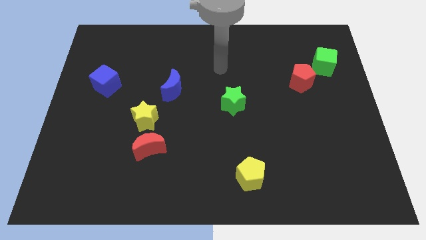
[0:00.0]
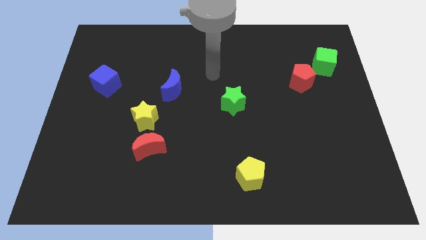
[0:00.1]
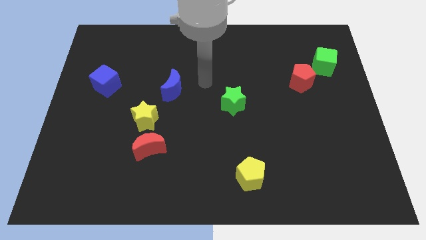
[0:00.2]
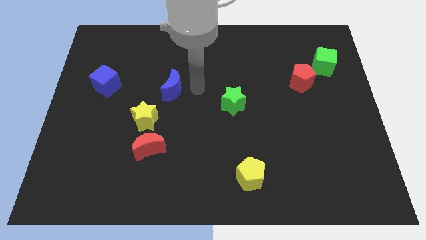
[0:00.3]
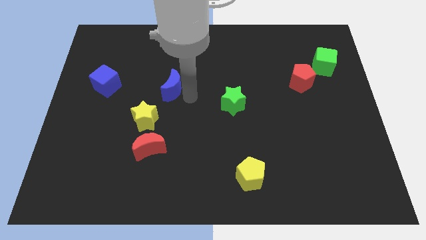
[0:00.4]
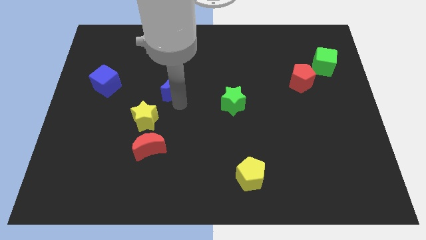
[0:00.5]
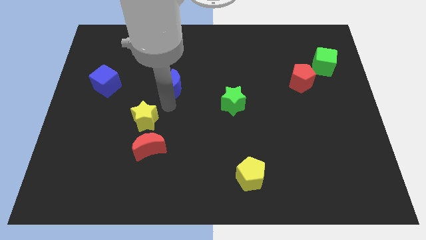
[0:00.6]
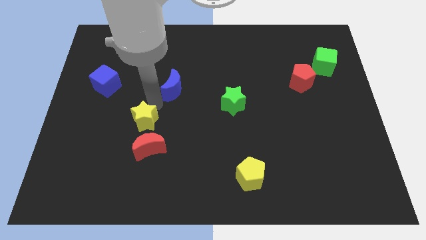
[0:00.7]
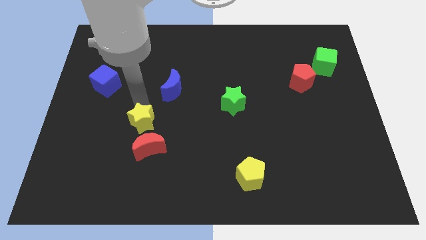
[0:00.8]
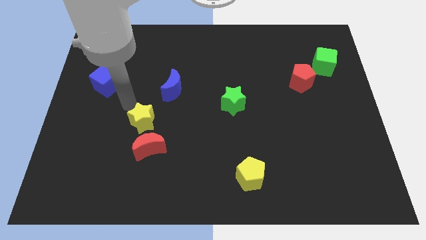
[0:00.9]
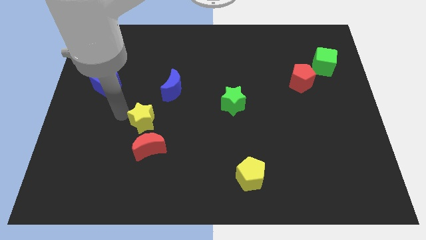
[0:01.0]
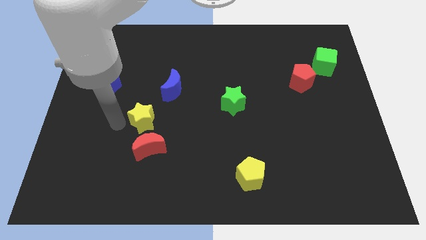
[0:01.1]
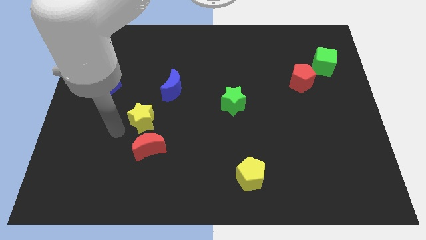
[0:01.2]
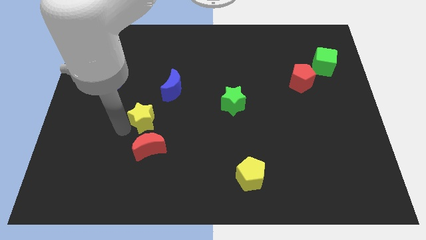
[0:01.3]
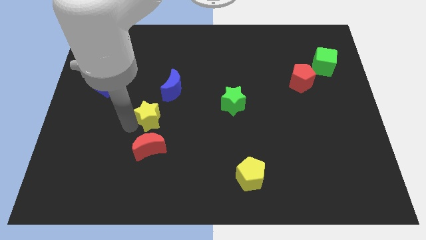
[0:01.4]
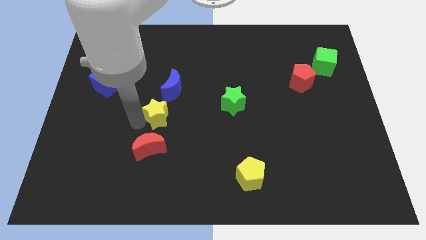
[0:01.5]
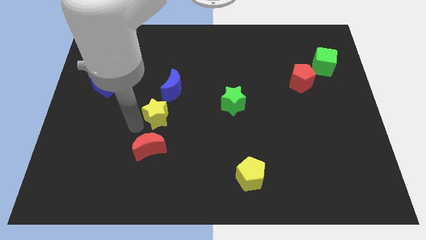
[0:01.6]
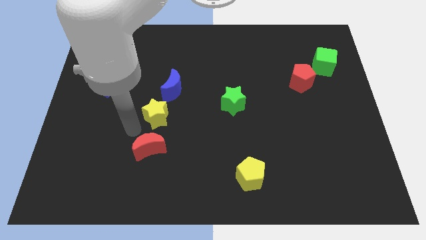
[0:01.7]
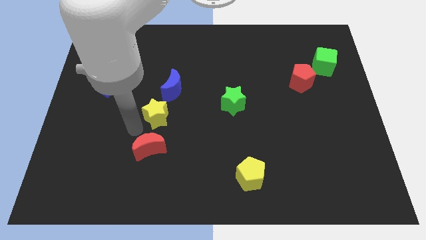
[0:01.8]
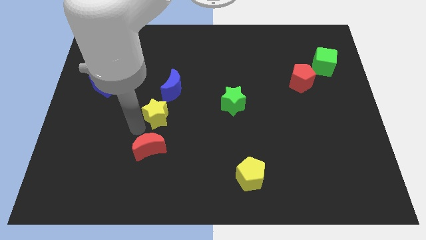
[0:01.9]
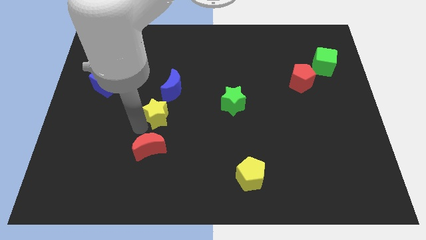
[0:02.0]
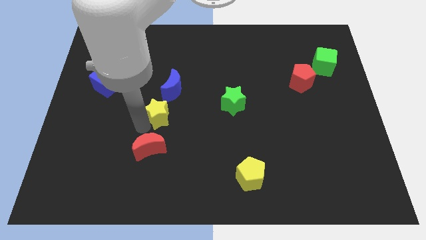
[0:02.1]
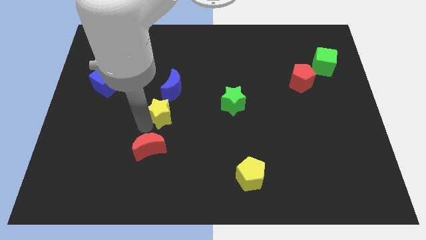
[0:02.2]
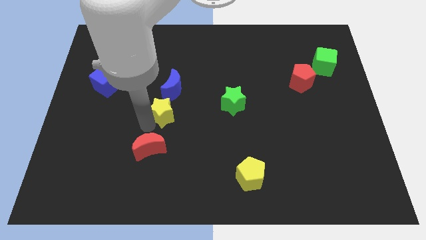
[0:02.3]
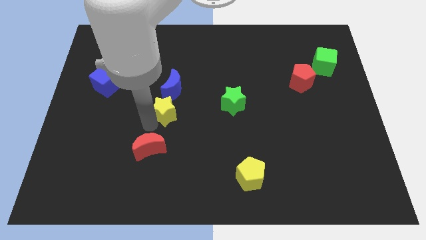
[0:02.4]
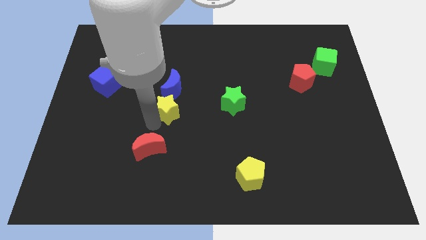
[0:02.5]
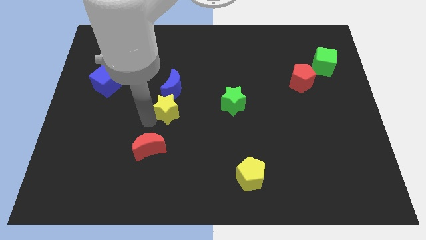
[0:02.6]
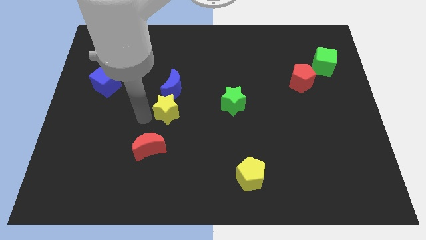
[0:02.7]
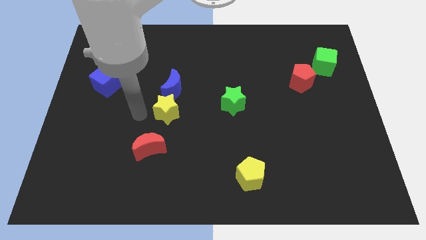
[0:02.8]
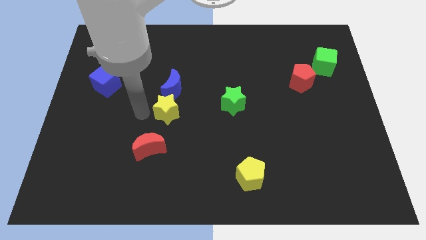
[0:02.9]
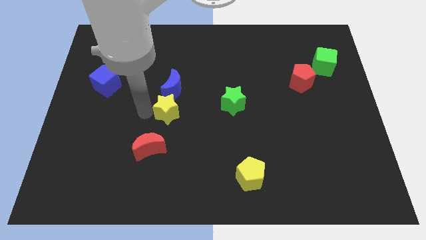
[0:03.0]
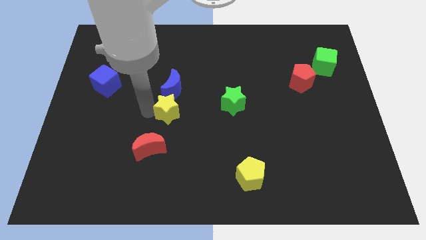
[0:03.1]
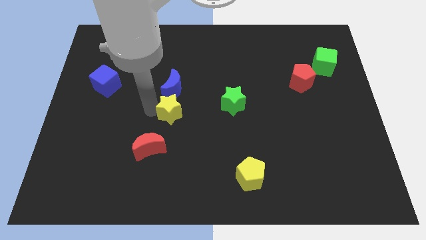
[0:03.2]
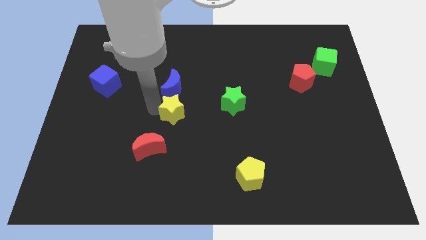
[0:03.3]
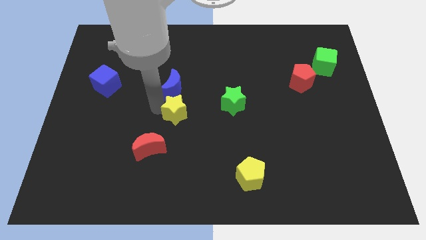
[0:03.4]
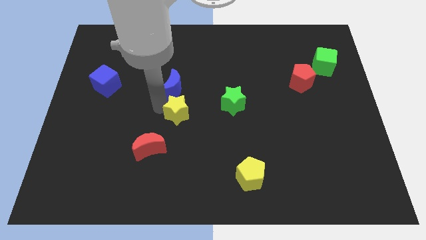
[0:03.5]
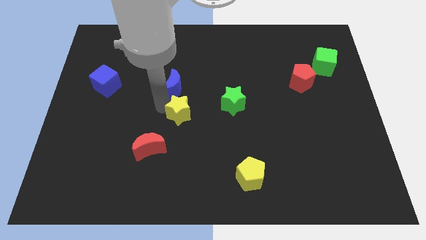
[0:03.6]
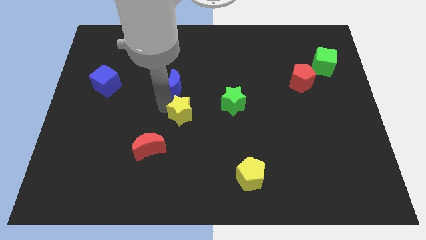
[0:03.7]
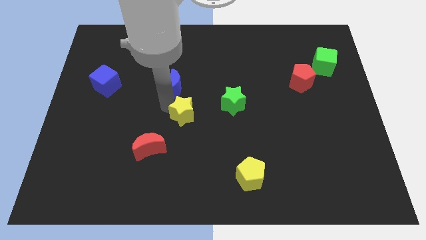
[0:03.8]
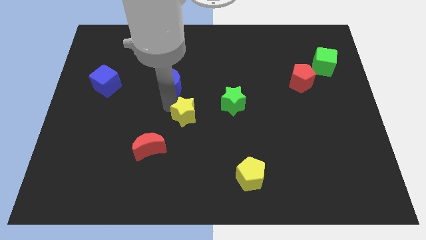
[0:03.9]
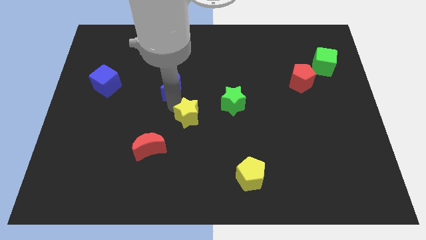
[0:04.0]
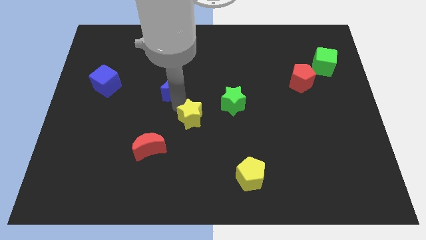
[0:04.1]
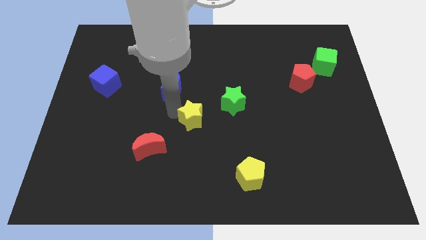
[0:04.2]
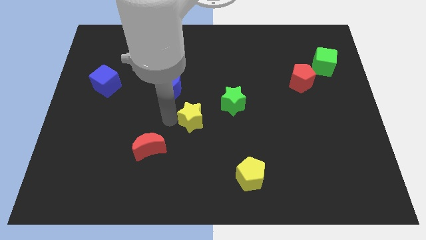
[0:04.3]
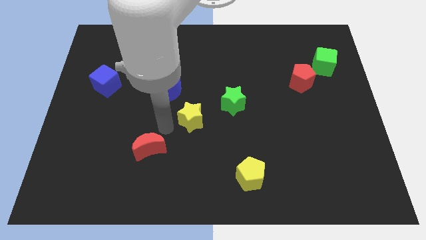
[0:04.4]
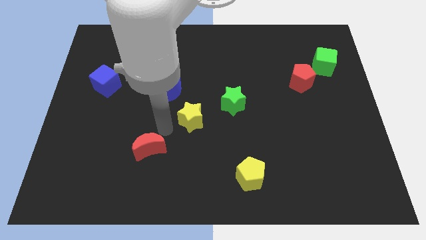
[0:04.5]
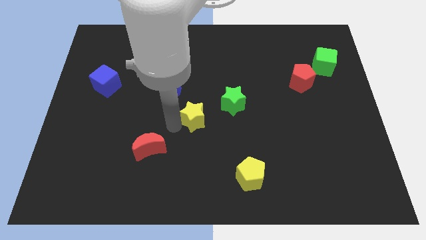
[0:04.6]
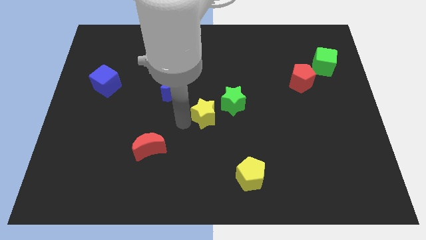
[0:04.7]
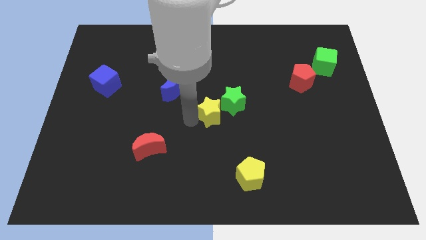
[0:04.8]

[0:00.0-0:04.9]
push the yellow star next to the green star
